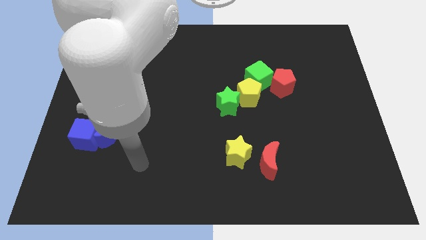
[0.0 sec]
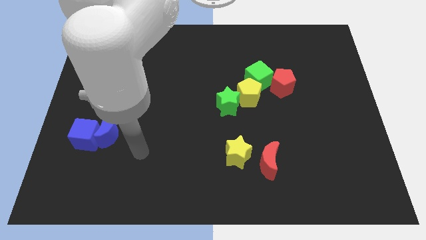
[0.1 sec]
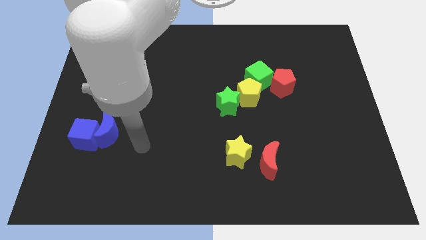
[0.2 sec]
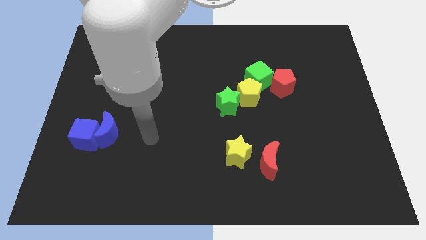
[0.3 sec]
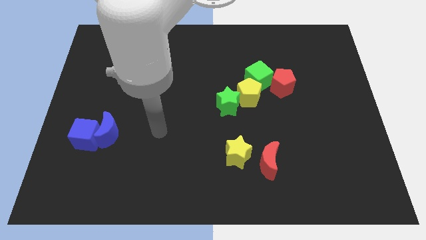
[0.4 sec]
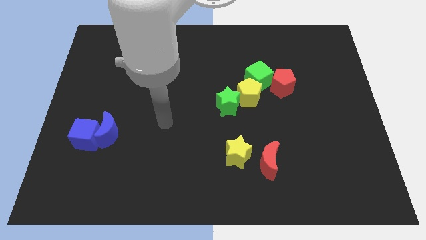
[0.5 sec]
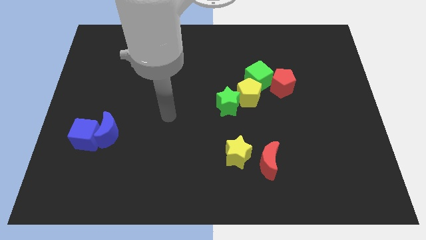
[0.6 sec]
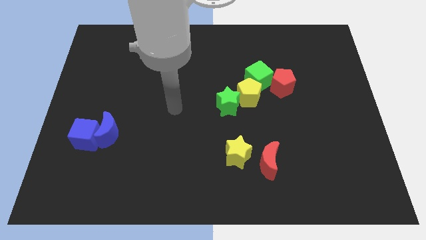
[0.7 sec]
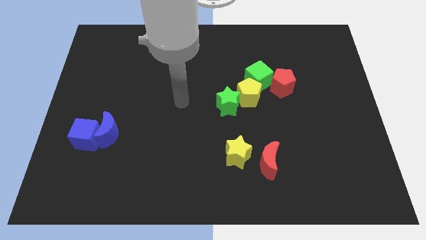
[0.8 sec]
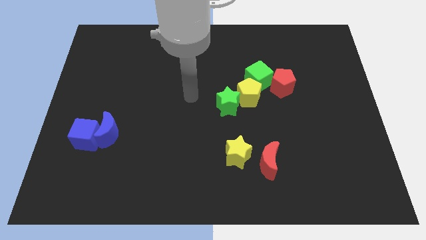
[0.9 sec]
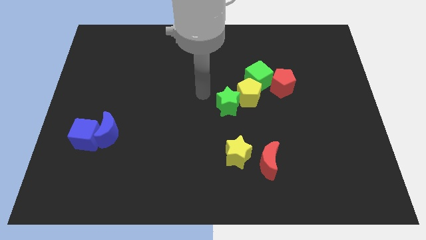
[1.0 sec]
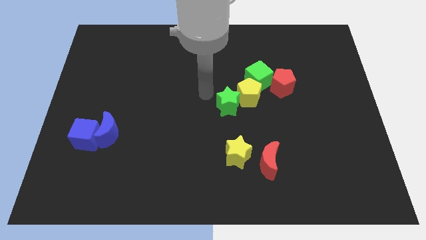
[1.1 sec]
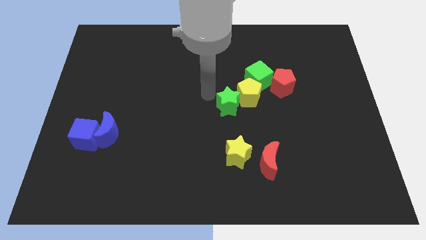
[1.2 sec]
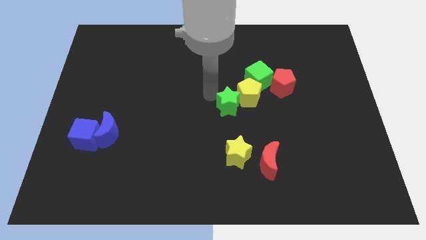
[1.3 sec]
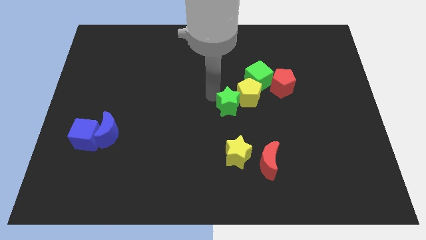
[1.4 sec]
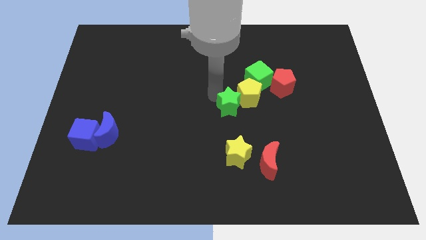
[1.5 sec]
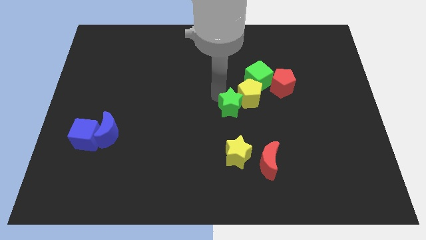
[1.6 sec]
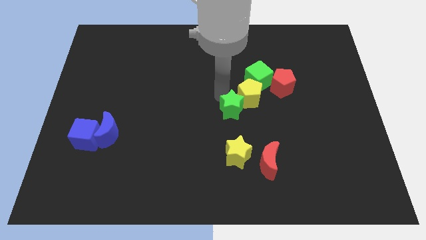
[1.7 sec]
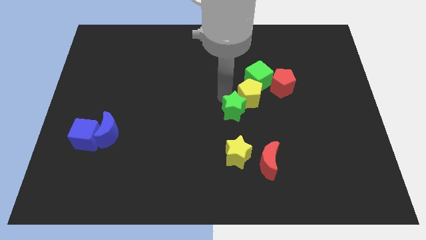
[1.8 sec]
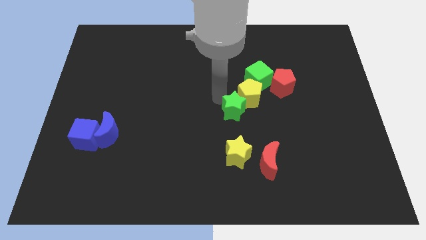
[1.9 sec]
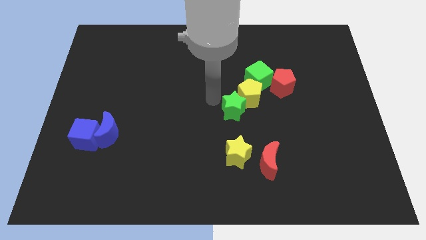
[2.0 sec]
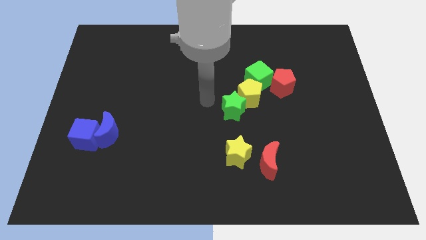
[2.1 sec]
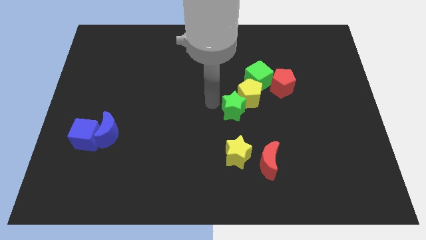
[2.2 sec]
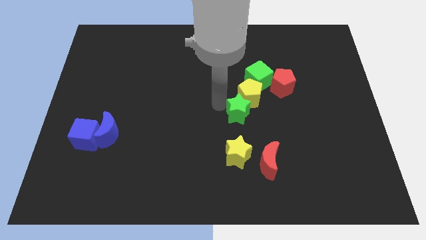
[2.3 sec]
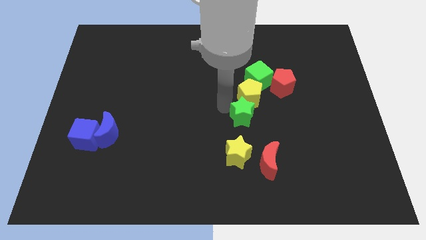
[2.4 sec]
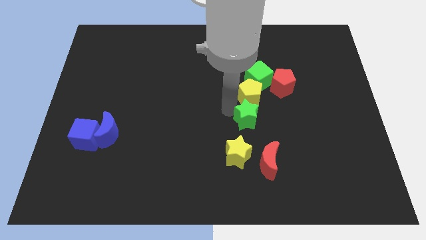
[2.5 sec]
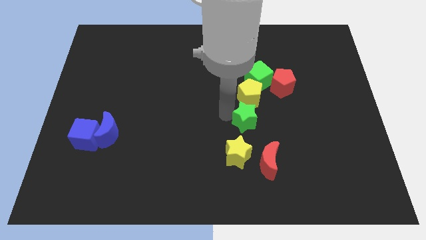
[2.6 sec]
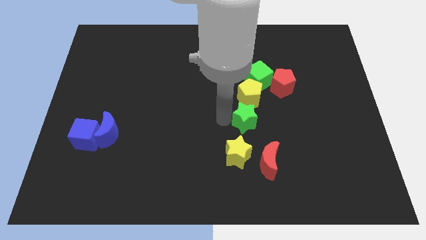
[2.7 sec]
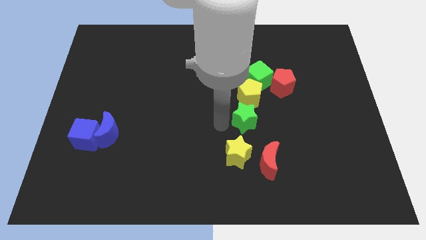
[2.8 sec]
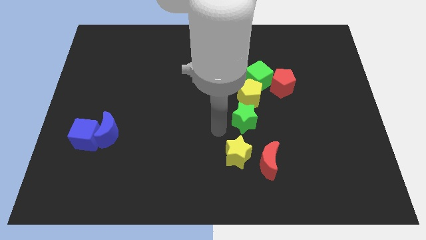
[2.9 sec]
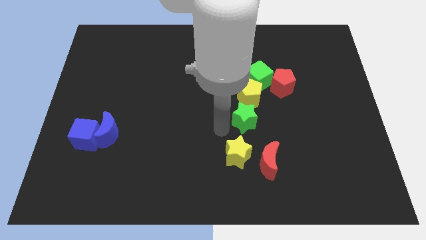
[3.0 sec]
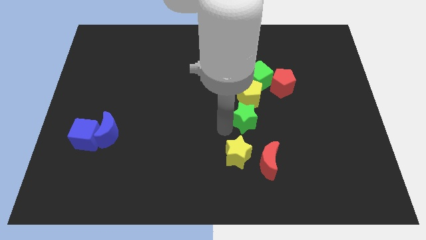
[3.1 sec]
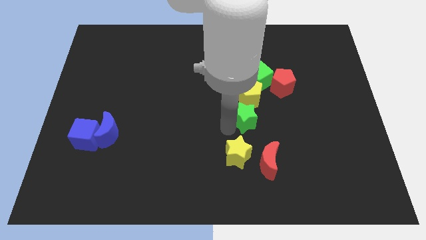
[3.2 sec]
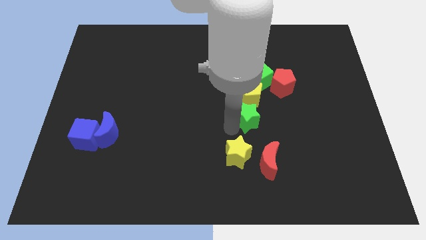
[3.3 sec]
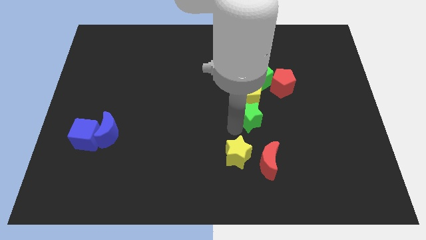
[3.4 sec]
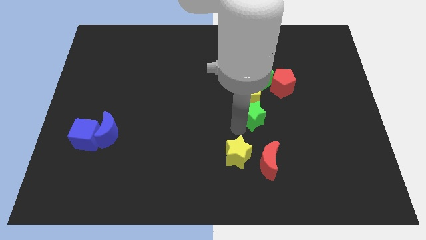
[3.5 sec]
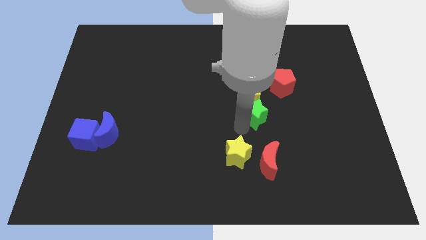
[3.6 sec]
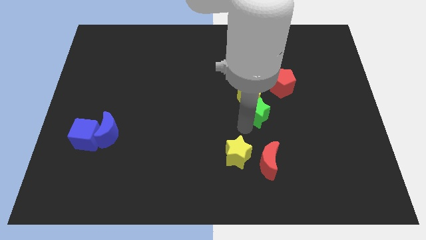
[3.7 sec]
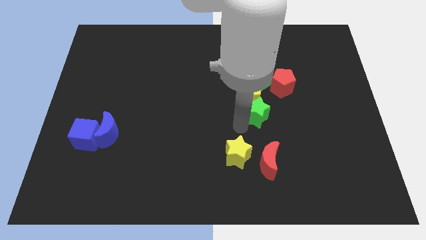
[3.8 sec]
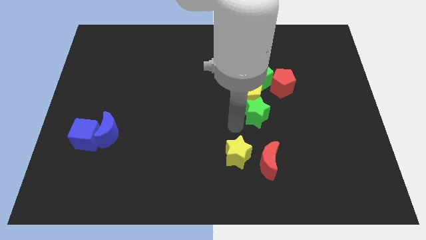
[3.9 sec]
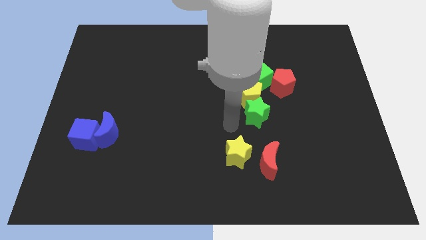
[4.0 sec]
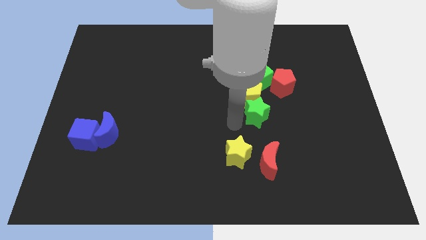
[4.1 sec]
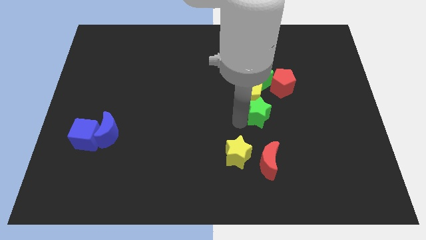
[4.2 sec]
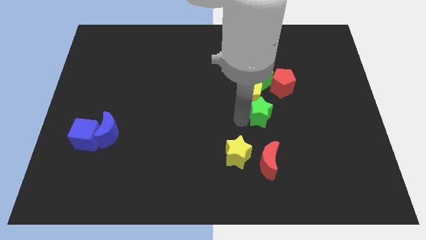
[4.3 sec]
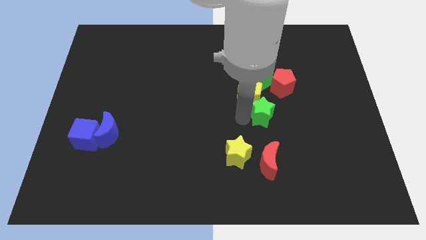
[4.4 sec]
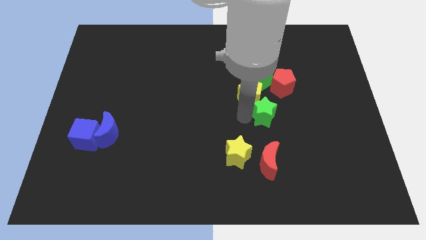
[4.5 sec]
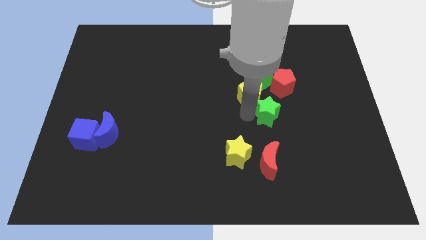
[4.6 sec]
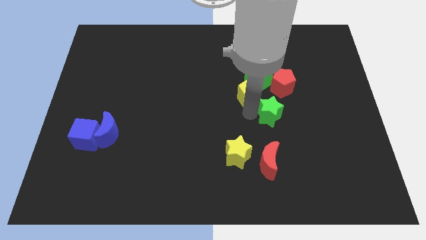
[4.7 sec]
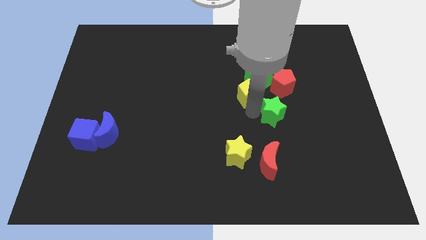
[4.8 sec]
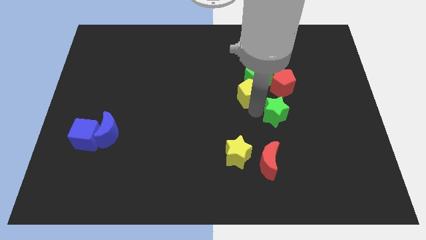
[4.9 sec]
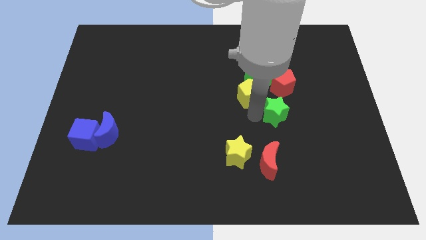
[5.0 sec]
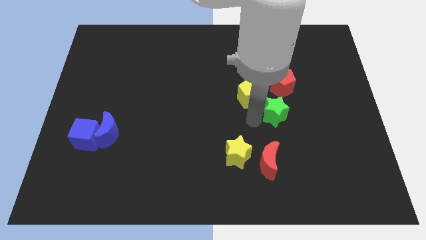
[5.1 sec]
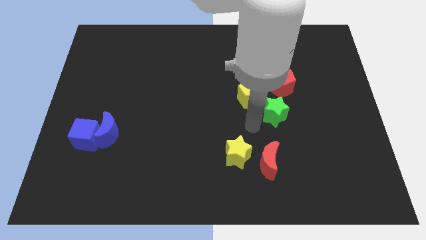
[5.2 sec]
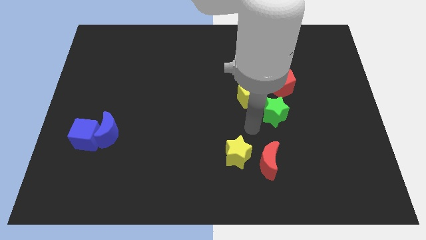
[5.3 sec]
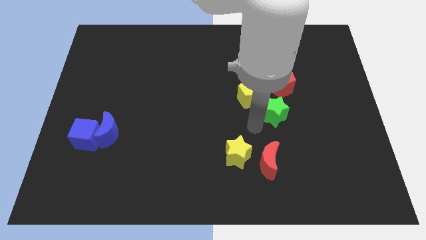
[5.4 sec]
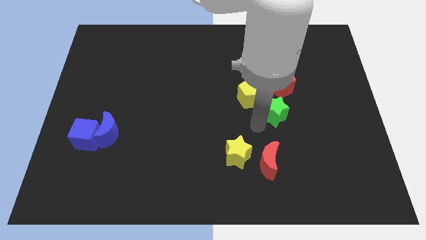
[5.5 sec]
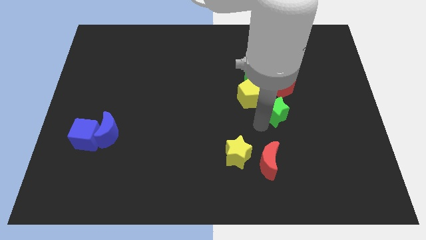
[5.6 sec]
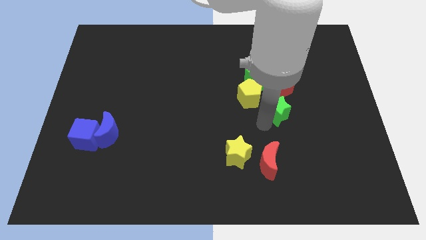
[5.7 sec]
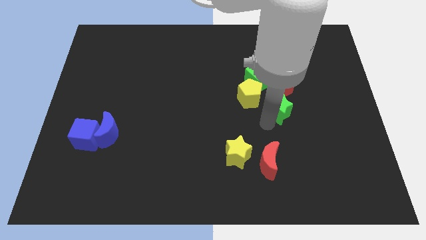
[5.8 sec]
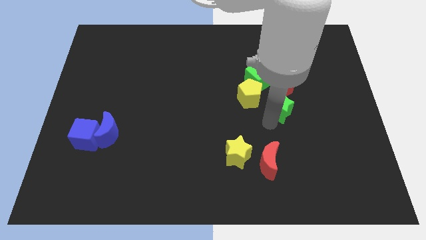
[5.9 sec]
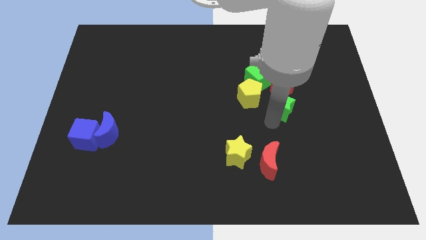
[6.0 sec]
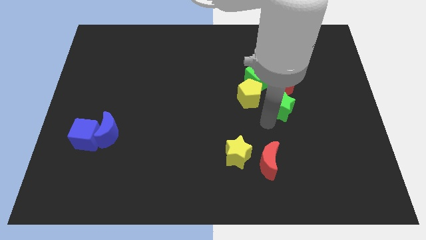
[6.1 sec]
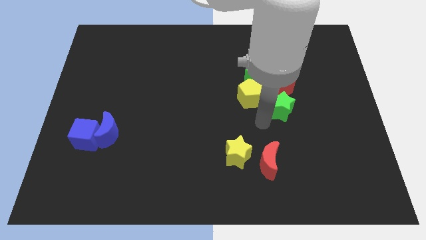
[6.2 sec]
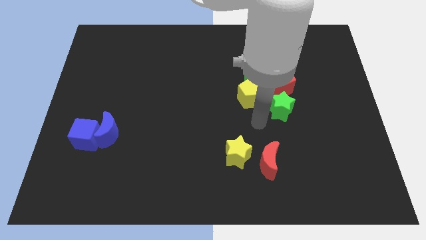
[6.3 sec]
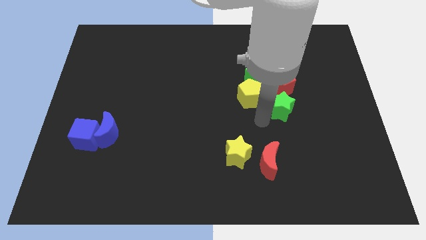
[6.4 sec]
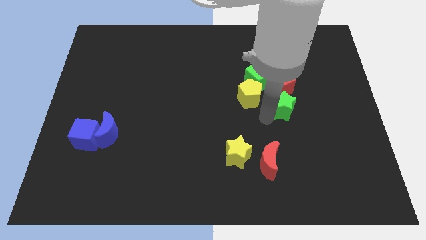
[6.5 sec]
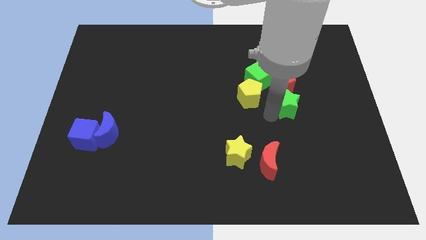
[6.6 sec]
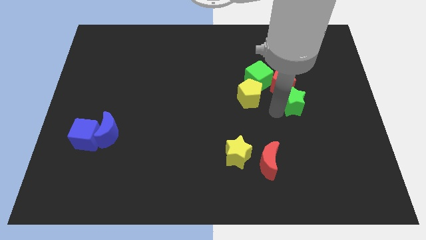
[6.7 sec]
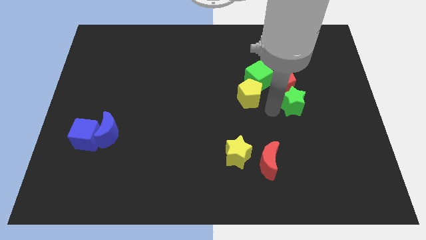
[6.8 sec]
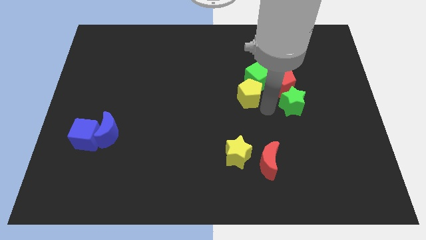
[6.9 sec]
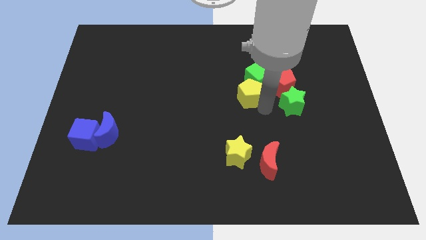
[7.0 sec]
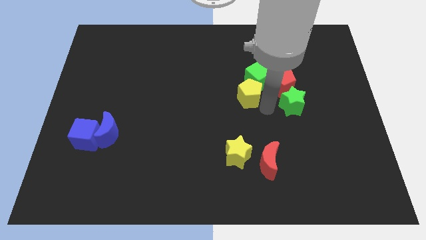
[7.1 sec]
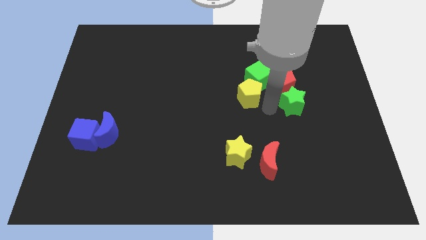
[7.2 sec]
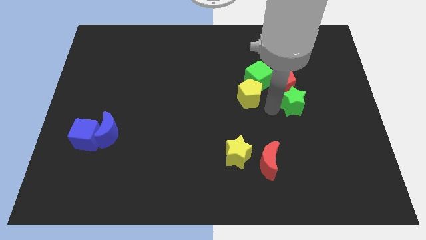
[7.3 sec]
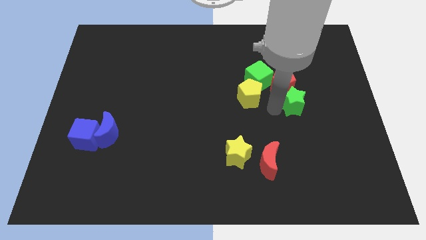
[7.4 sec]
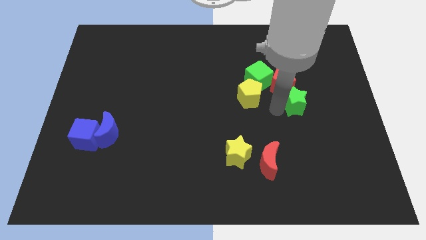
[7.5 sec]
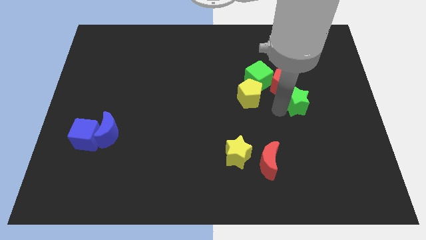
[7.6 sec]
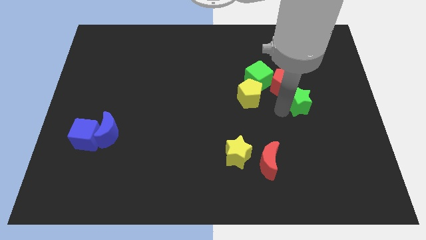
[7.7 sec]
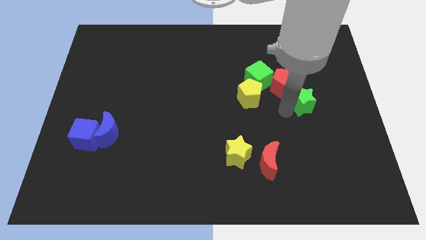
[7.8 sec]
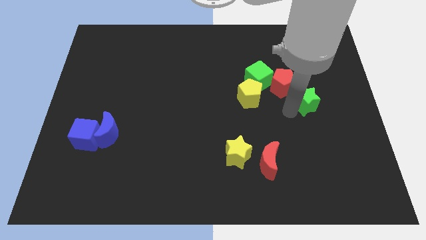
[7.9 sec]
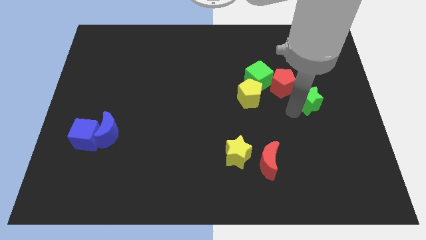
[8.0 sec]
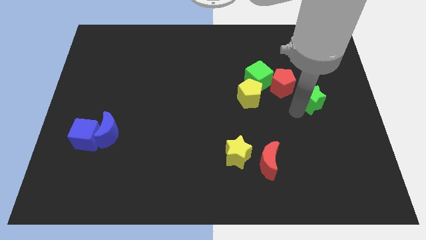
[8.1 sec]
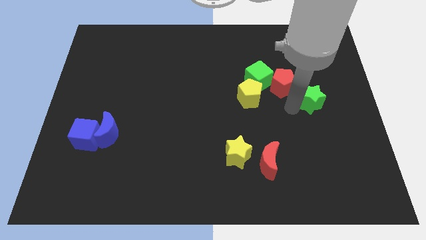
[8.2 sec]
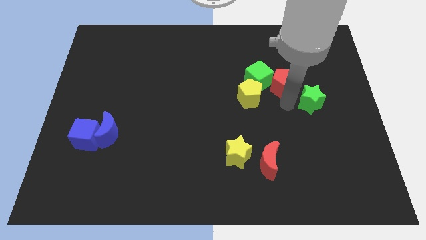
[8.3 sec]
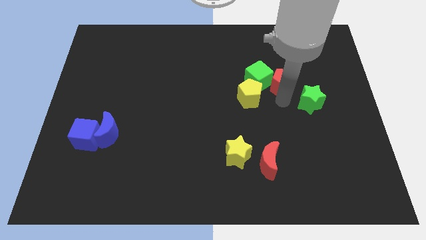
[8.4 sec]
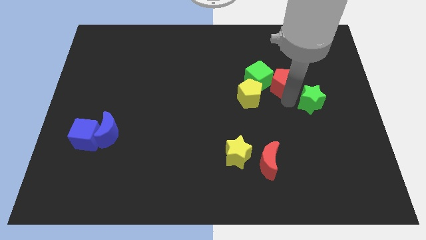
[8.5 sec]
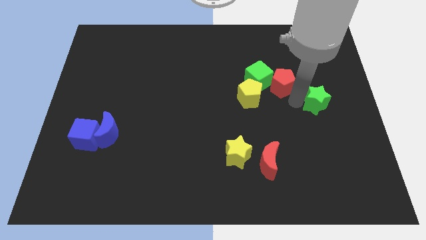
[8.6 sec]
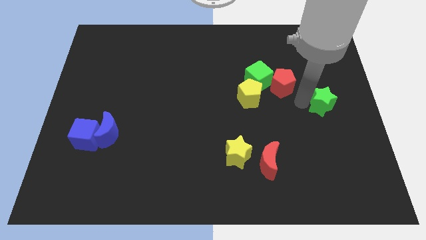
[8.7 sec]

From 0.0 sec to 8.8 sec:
move the green star to the center right
